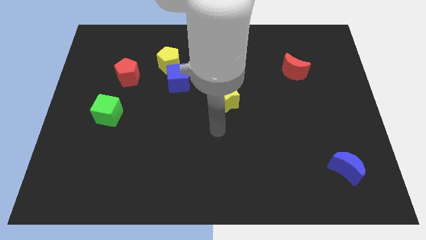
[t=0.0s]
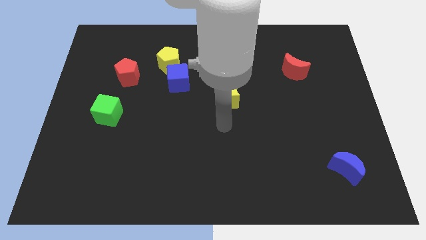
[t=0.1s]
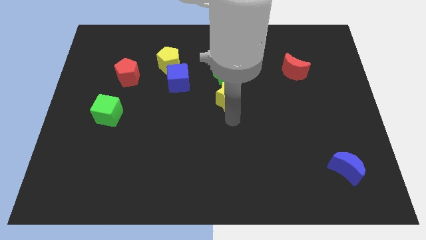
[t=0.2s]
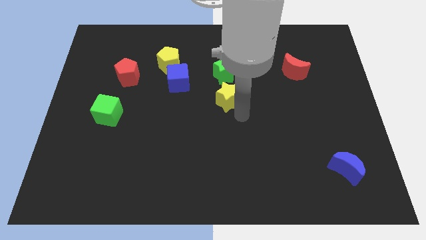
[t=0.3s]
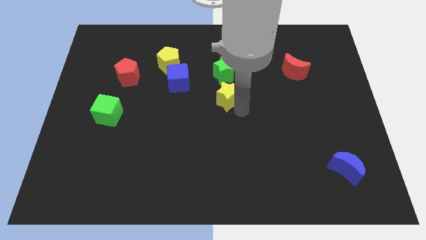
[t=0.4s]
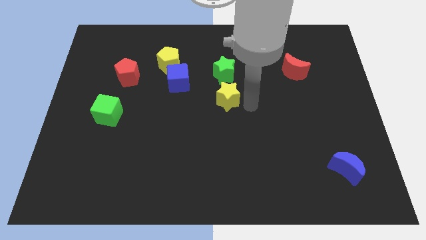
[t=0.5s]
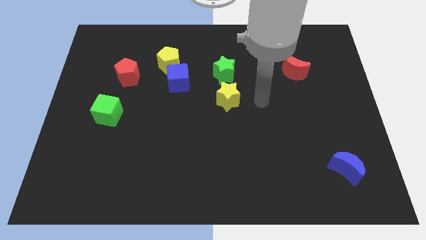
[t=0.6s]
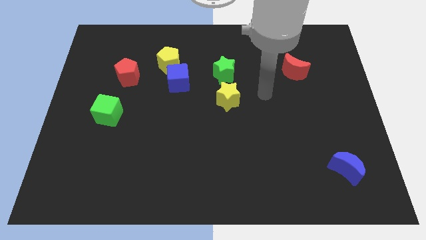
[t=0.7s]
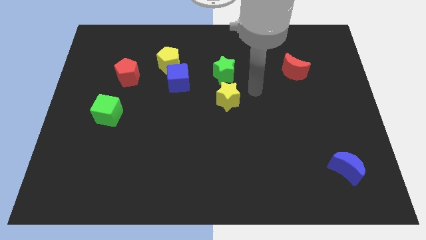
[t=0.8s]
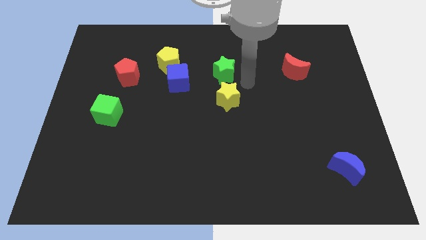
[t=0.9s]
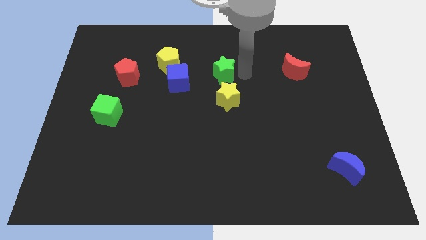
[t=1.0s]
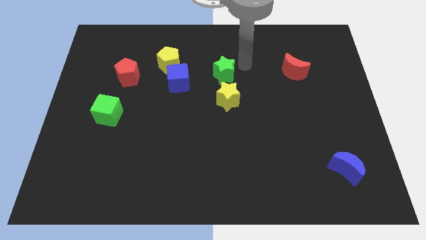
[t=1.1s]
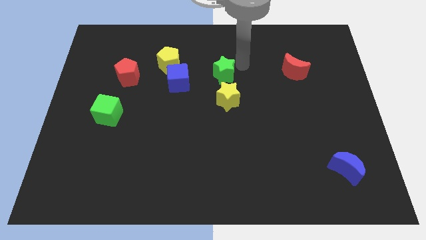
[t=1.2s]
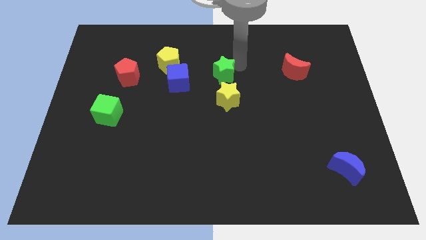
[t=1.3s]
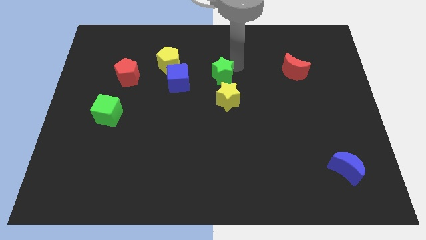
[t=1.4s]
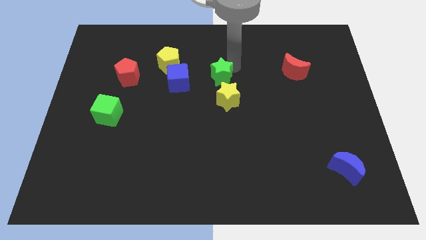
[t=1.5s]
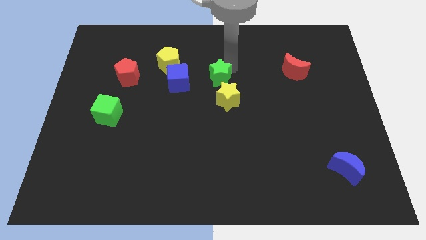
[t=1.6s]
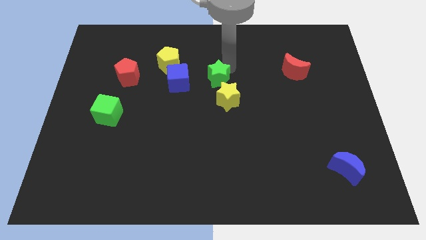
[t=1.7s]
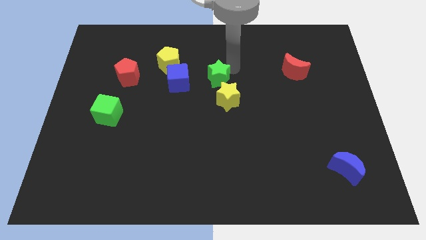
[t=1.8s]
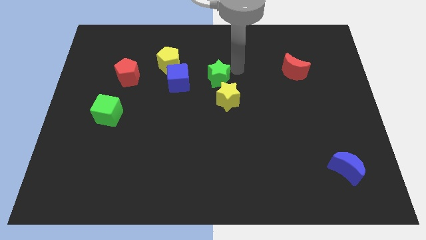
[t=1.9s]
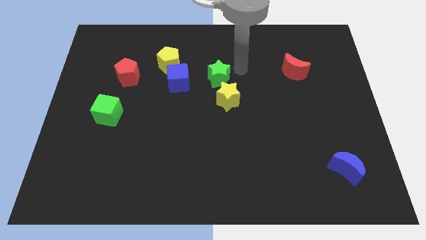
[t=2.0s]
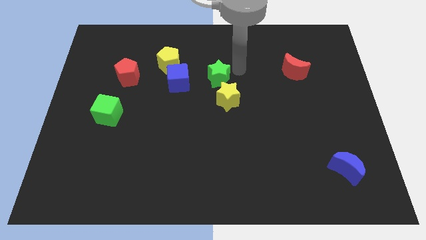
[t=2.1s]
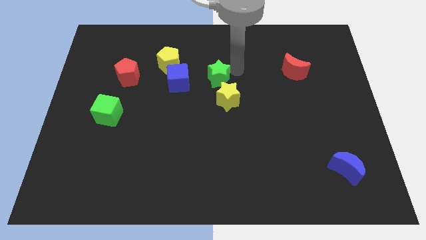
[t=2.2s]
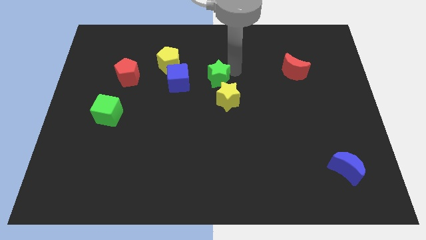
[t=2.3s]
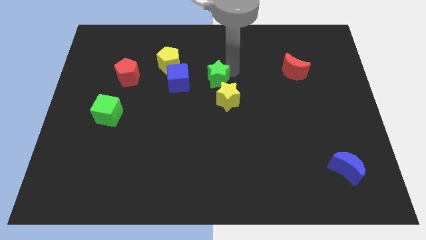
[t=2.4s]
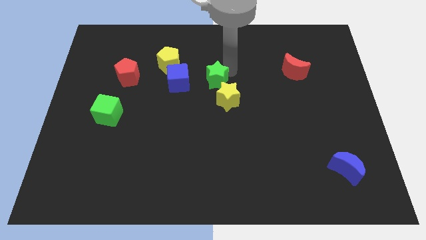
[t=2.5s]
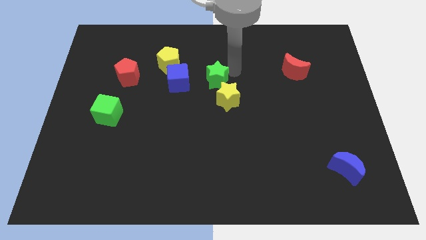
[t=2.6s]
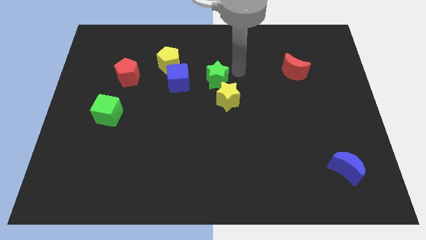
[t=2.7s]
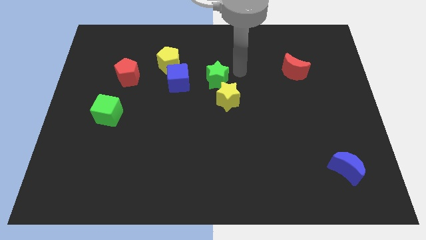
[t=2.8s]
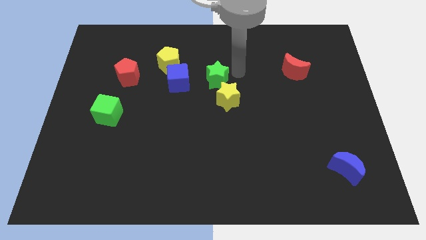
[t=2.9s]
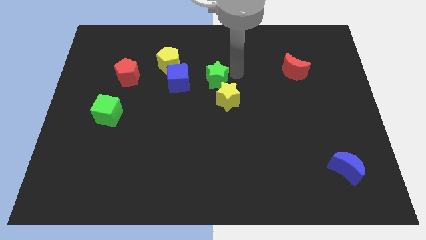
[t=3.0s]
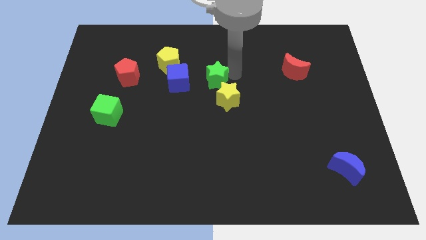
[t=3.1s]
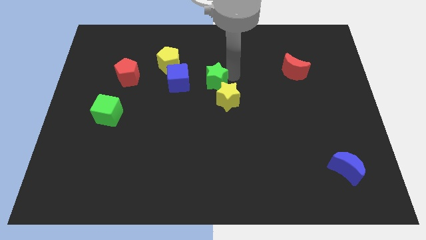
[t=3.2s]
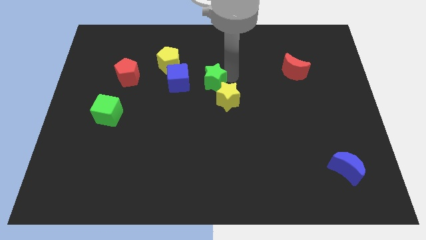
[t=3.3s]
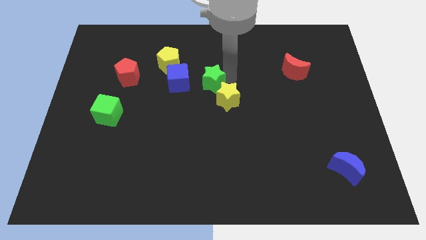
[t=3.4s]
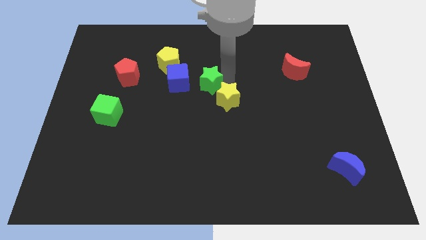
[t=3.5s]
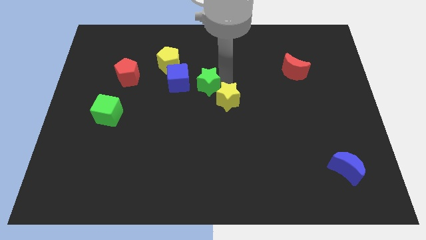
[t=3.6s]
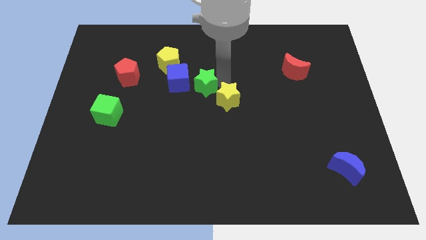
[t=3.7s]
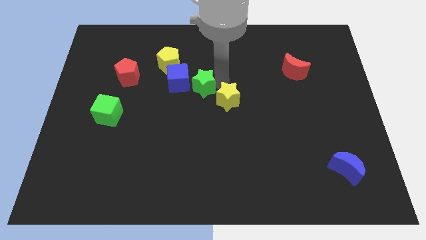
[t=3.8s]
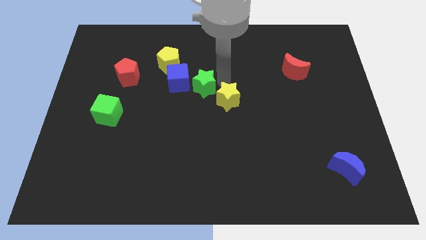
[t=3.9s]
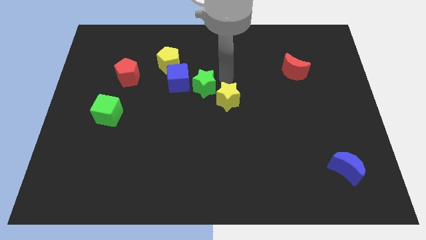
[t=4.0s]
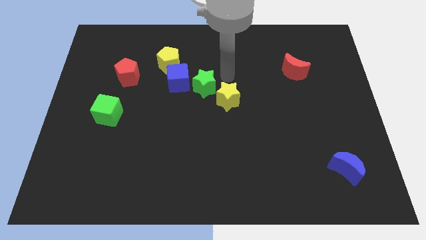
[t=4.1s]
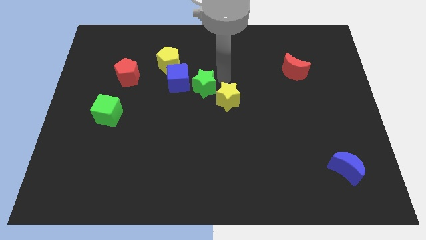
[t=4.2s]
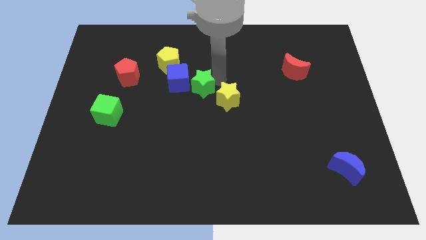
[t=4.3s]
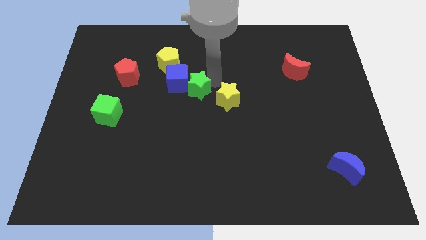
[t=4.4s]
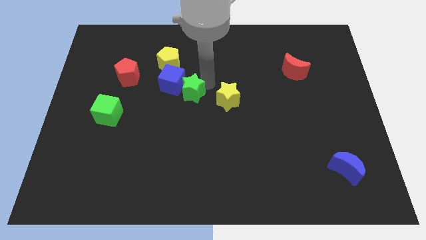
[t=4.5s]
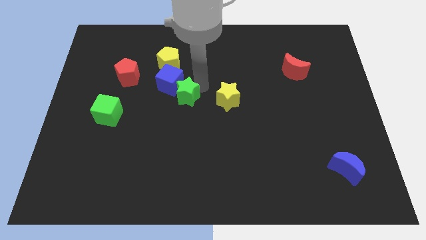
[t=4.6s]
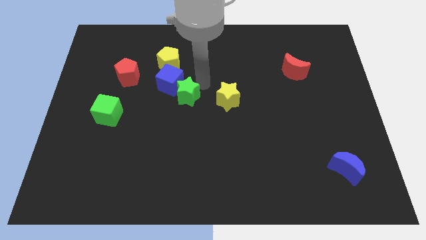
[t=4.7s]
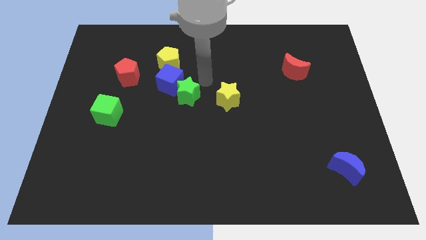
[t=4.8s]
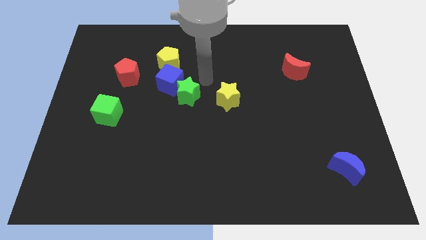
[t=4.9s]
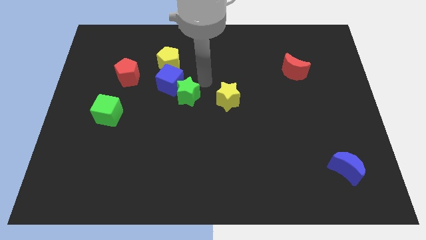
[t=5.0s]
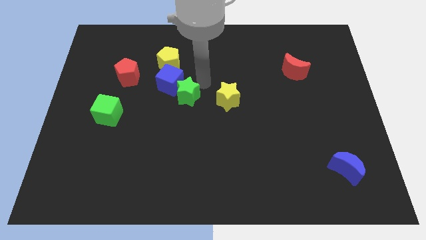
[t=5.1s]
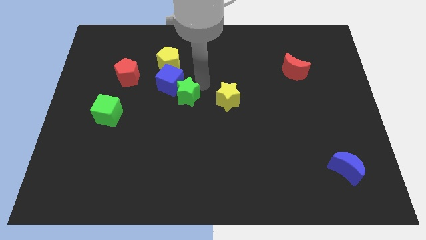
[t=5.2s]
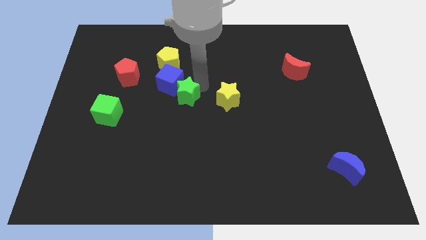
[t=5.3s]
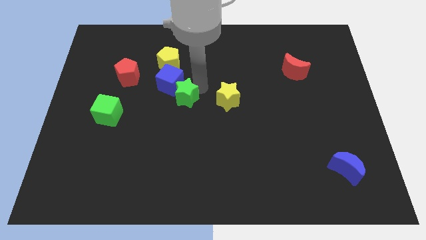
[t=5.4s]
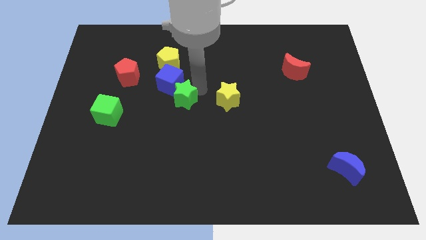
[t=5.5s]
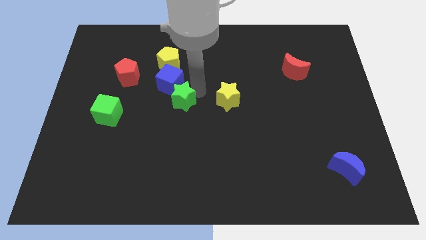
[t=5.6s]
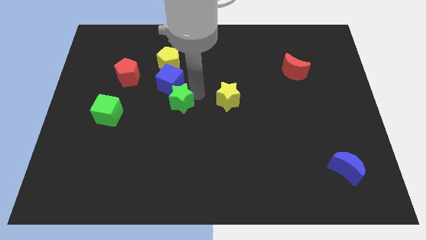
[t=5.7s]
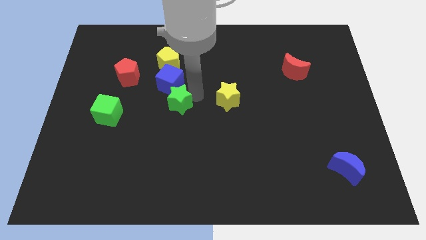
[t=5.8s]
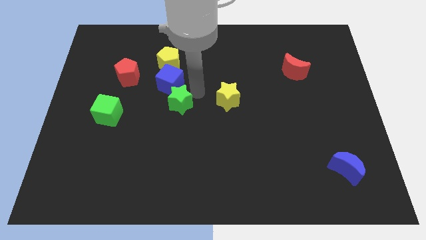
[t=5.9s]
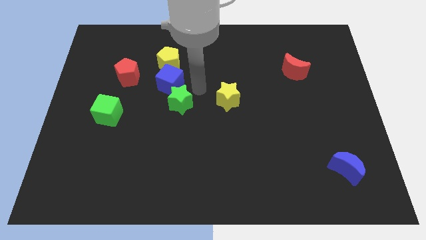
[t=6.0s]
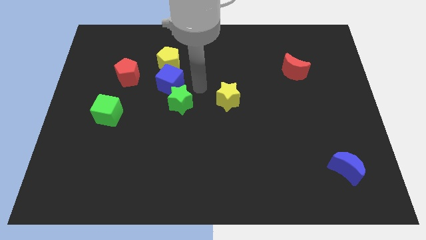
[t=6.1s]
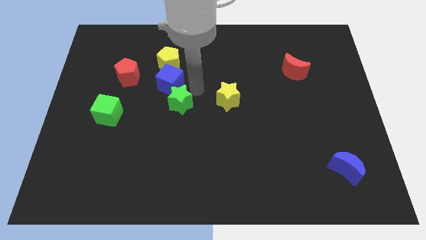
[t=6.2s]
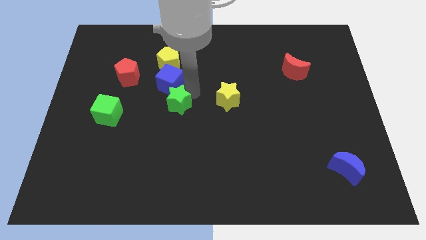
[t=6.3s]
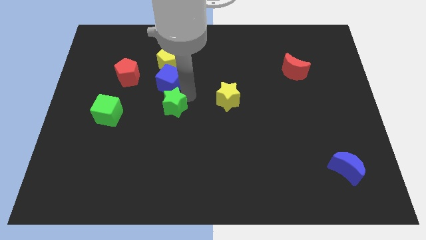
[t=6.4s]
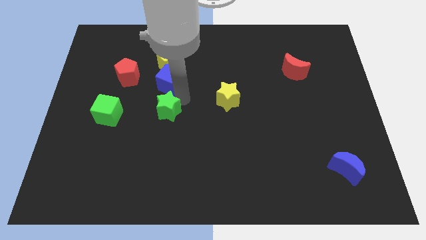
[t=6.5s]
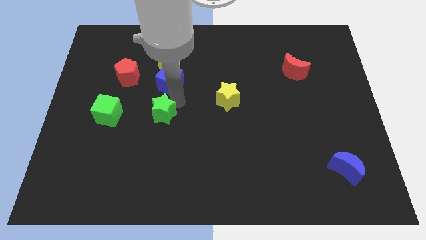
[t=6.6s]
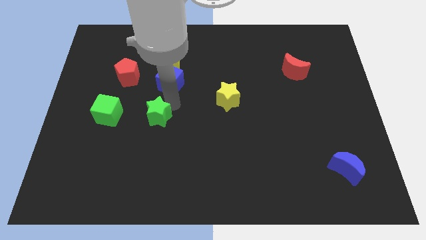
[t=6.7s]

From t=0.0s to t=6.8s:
slide the green star diagonally downwards and left

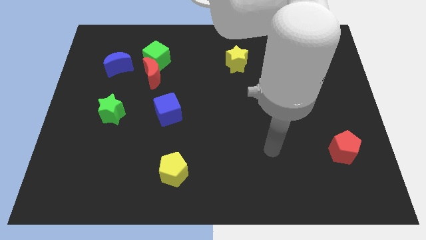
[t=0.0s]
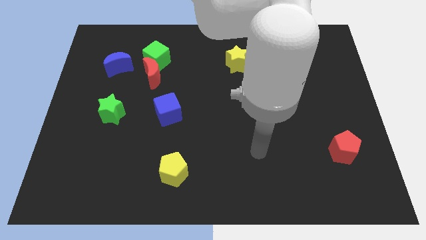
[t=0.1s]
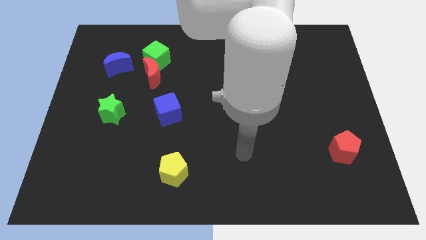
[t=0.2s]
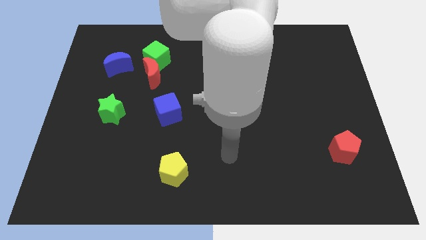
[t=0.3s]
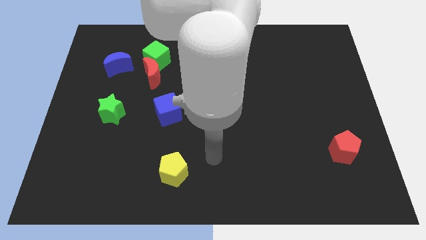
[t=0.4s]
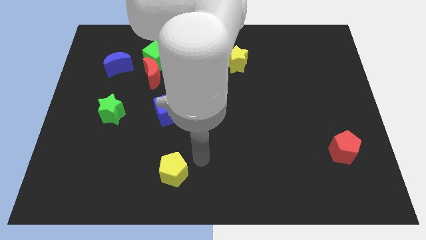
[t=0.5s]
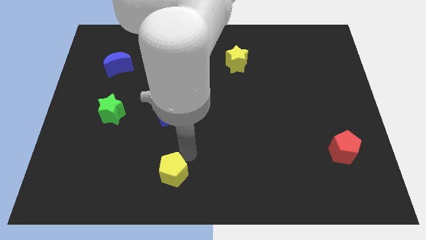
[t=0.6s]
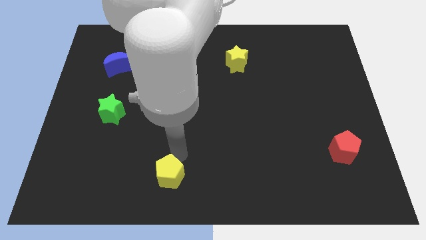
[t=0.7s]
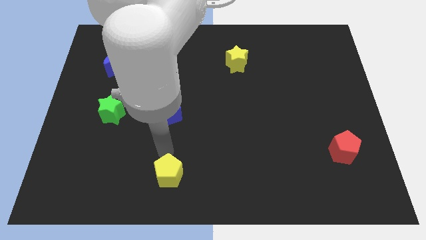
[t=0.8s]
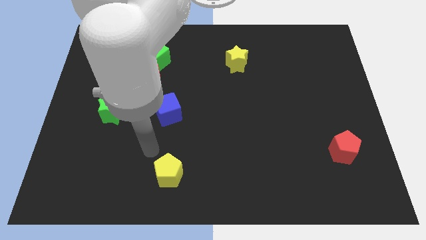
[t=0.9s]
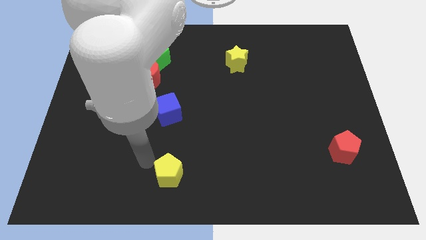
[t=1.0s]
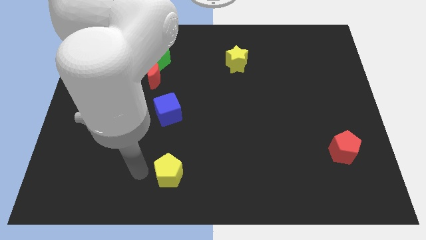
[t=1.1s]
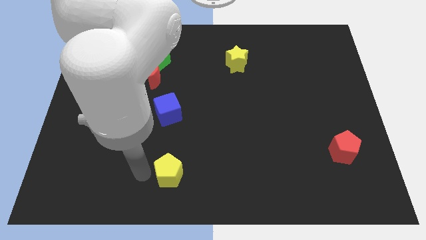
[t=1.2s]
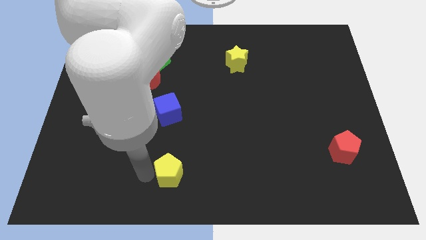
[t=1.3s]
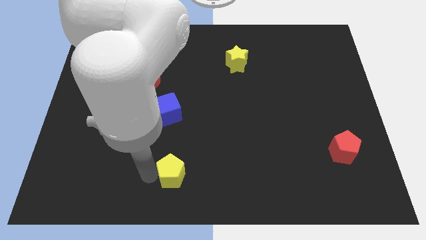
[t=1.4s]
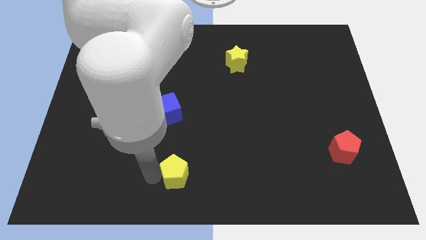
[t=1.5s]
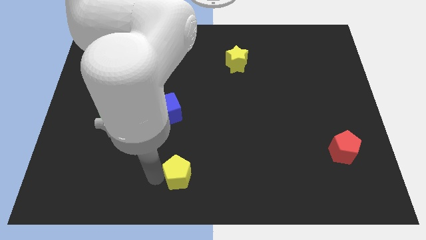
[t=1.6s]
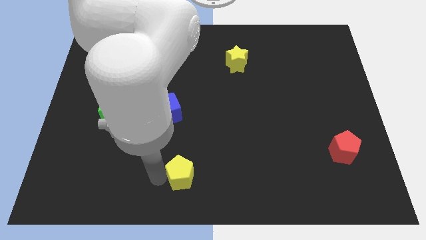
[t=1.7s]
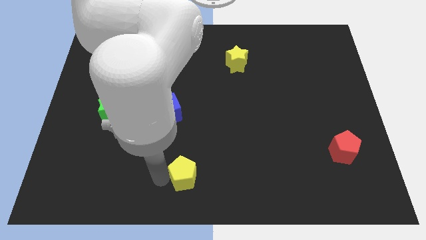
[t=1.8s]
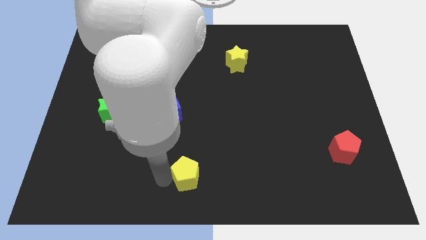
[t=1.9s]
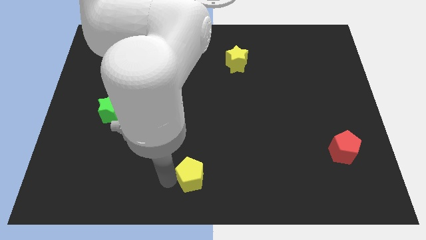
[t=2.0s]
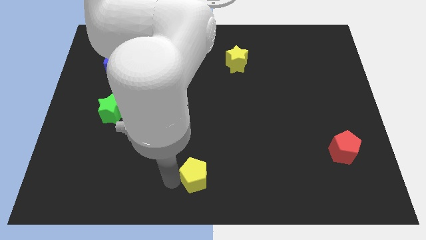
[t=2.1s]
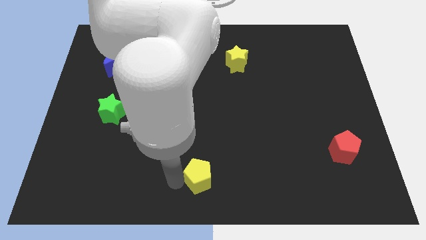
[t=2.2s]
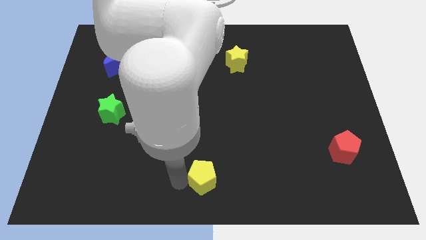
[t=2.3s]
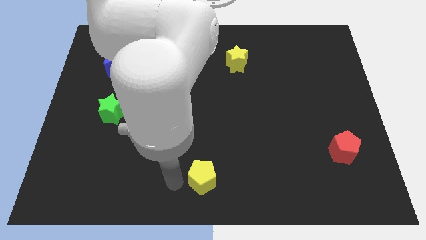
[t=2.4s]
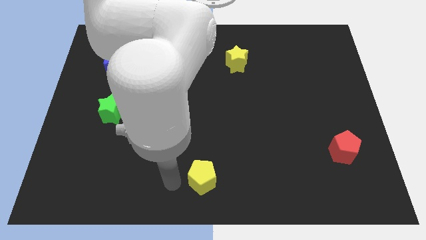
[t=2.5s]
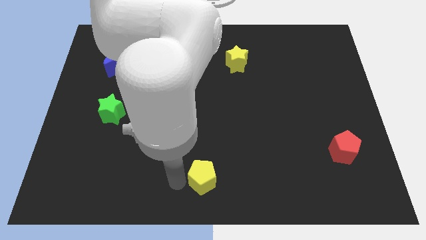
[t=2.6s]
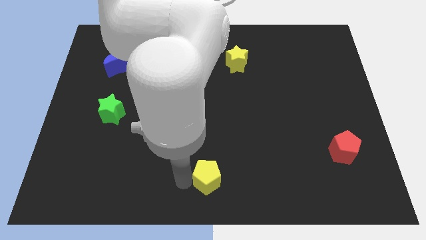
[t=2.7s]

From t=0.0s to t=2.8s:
move the yellow pentagon right a little
